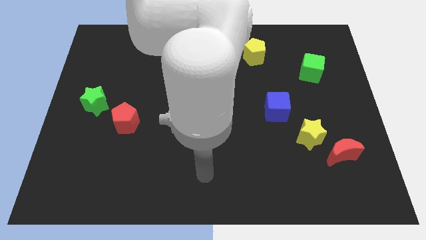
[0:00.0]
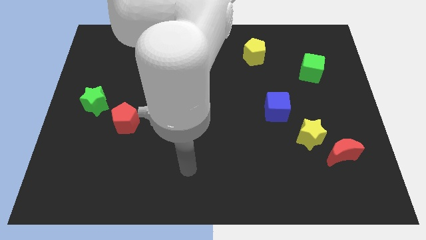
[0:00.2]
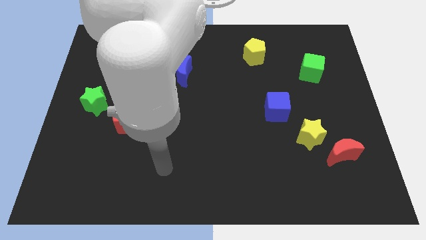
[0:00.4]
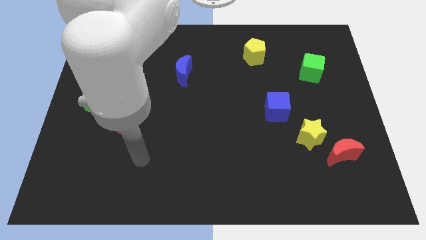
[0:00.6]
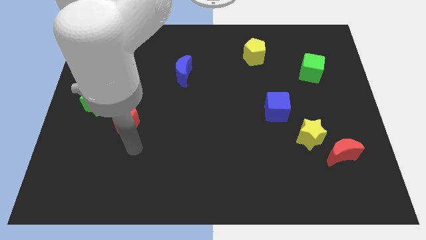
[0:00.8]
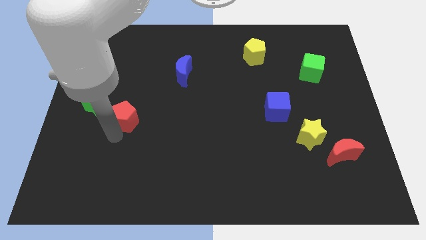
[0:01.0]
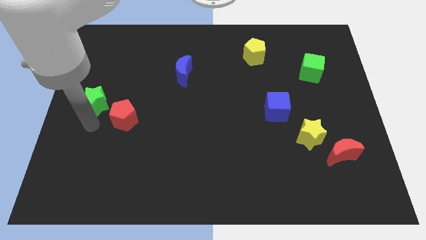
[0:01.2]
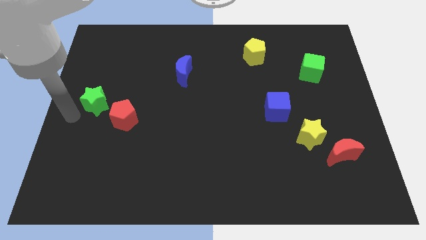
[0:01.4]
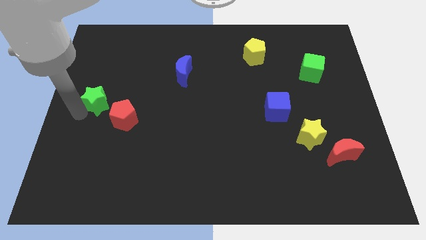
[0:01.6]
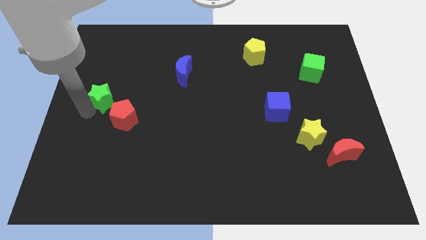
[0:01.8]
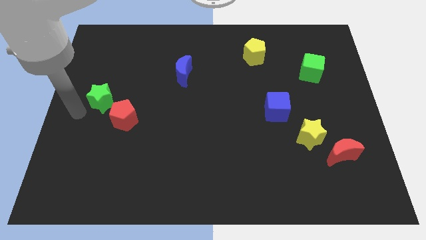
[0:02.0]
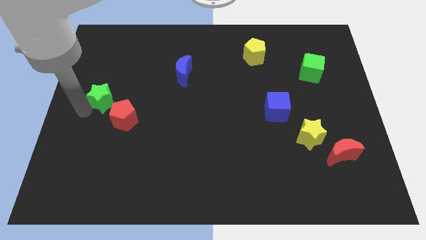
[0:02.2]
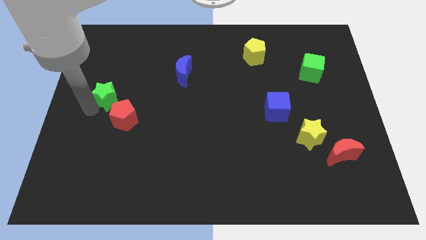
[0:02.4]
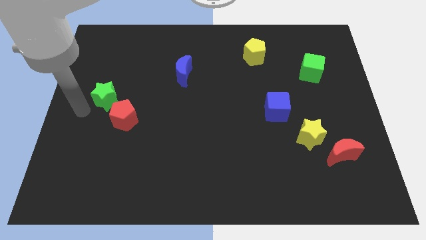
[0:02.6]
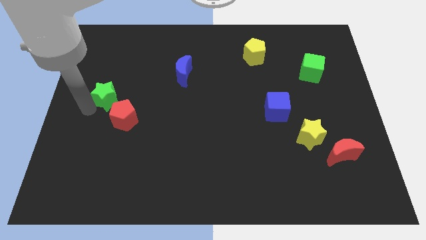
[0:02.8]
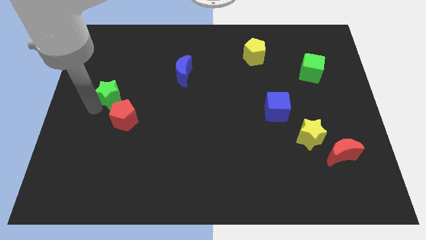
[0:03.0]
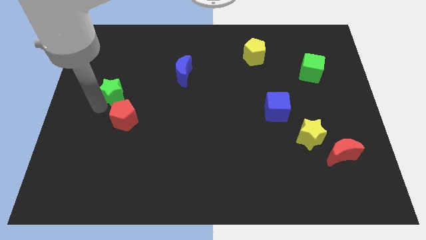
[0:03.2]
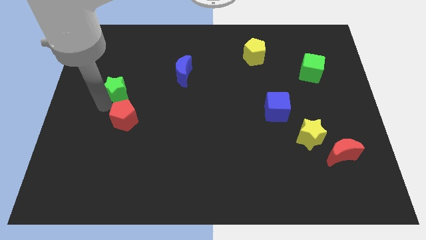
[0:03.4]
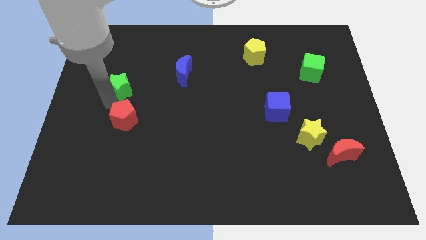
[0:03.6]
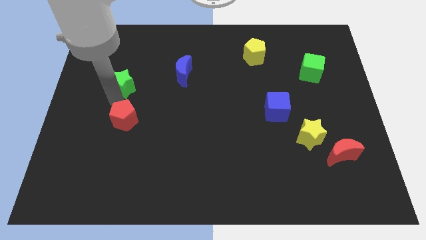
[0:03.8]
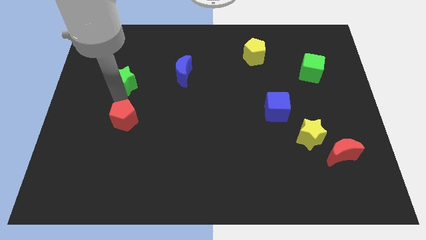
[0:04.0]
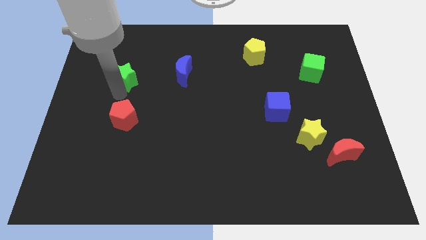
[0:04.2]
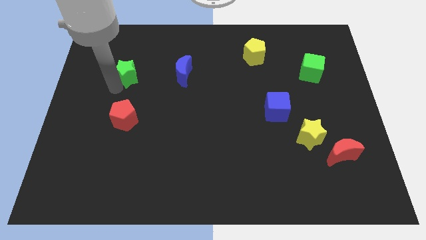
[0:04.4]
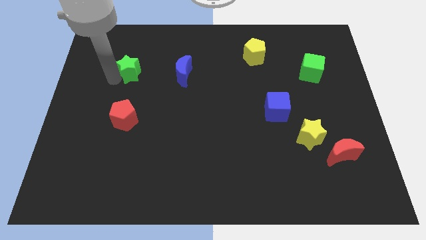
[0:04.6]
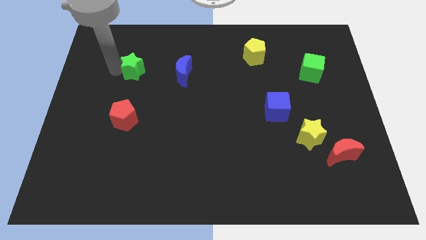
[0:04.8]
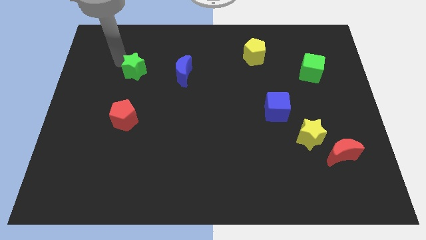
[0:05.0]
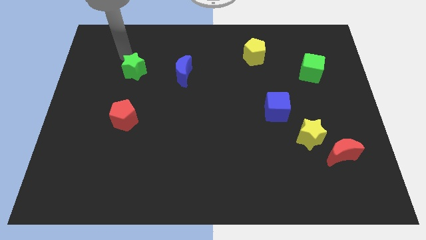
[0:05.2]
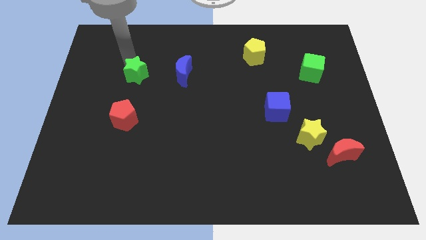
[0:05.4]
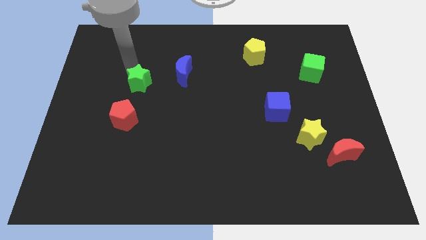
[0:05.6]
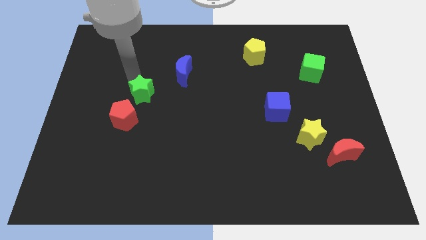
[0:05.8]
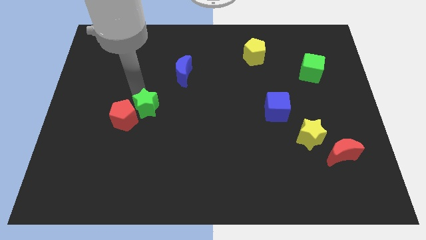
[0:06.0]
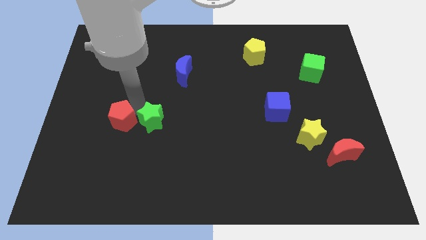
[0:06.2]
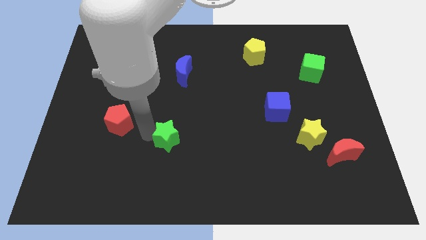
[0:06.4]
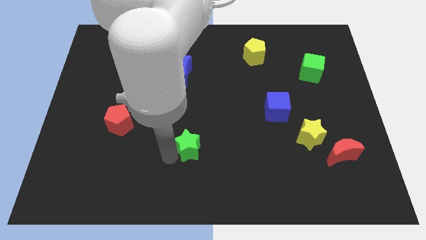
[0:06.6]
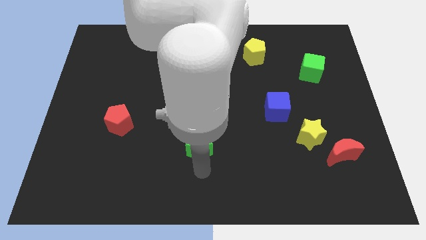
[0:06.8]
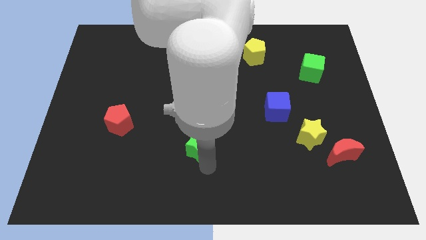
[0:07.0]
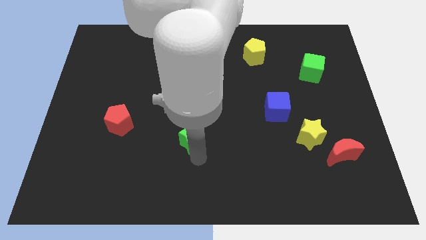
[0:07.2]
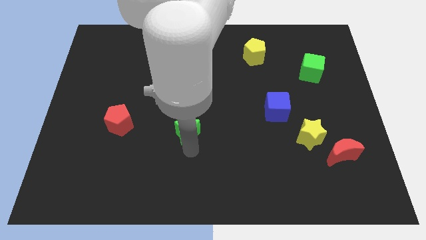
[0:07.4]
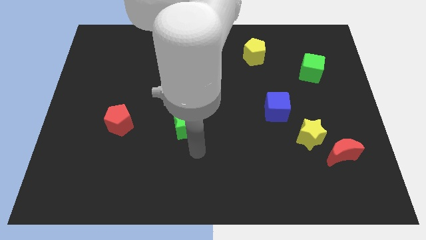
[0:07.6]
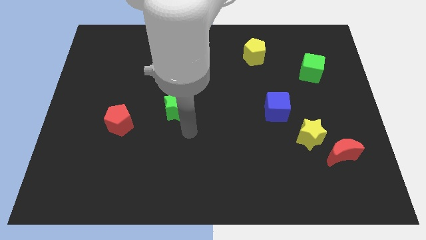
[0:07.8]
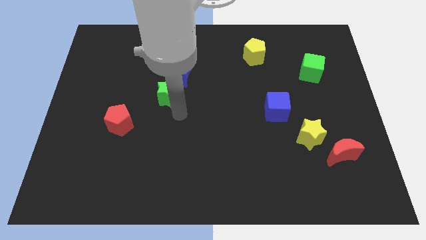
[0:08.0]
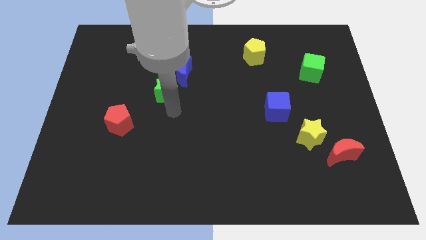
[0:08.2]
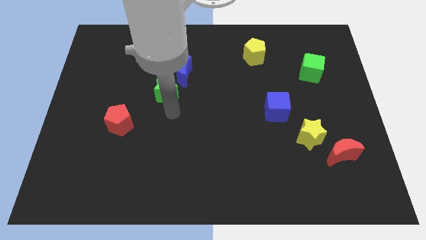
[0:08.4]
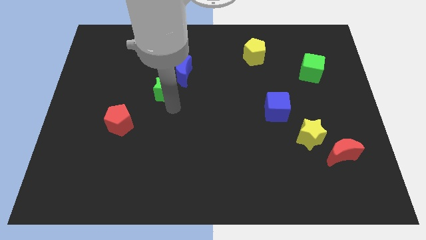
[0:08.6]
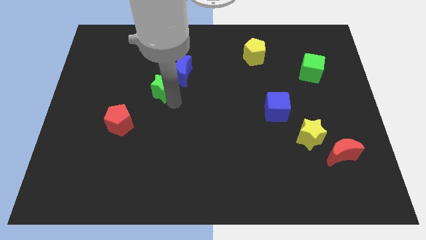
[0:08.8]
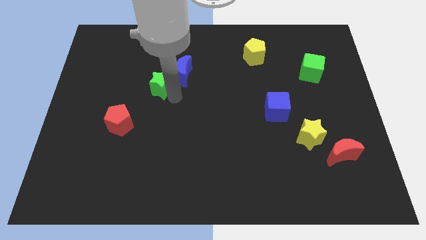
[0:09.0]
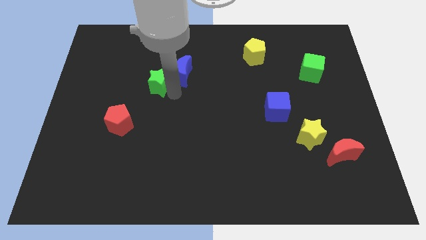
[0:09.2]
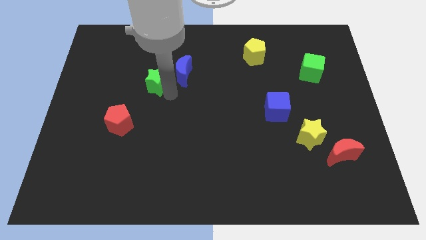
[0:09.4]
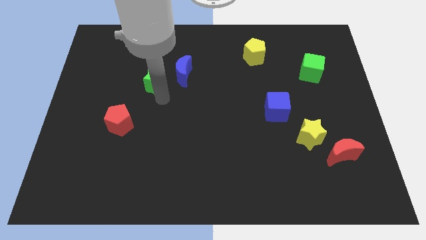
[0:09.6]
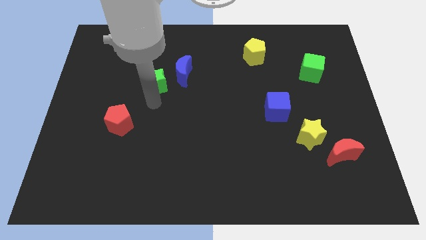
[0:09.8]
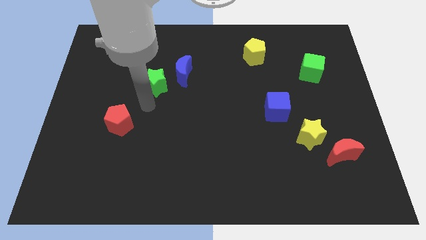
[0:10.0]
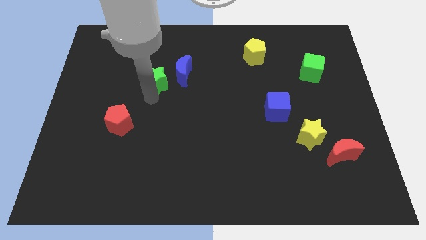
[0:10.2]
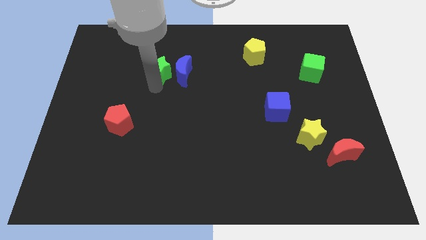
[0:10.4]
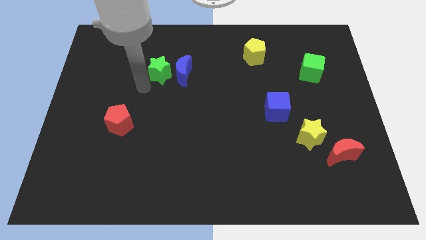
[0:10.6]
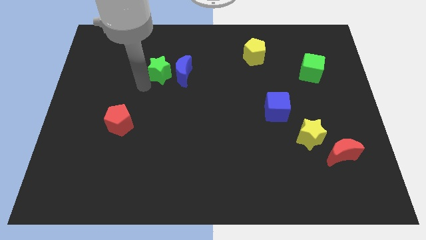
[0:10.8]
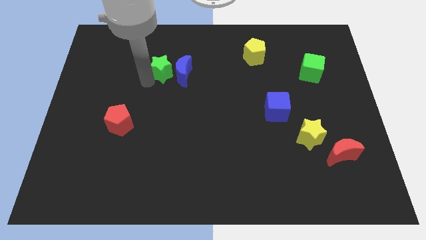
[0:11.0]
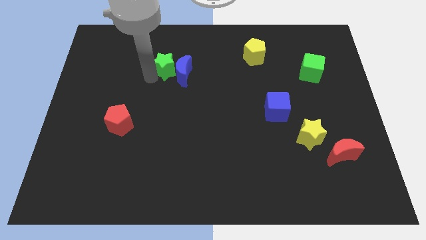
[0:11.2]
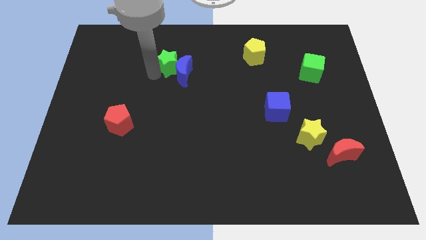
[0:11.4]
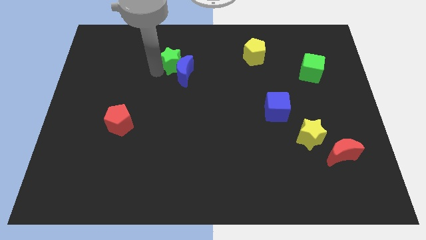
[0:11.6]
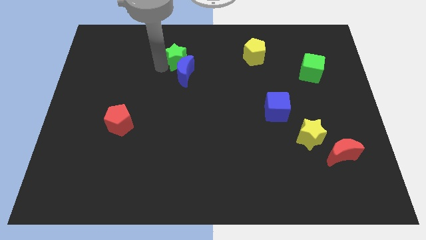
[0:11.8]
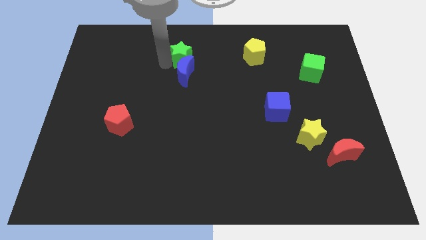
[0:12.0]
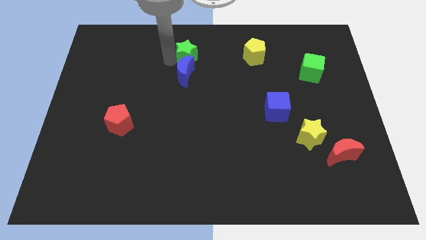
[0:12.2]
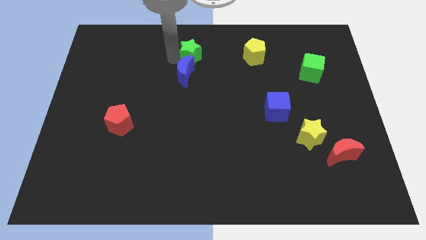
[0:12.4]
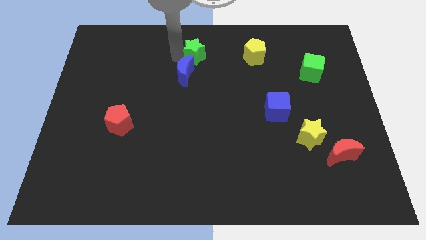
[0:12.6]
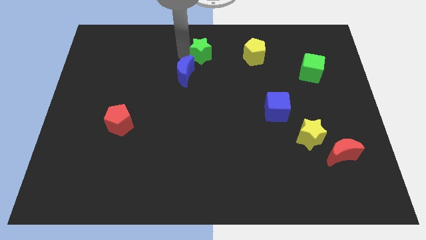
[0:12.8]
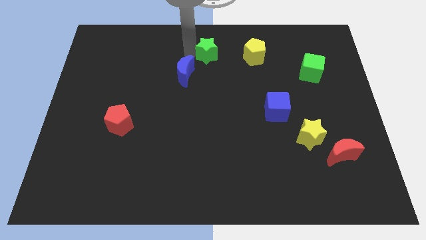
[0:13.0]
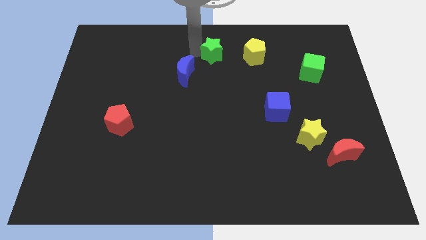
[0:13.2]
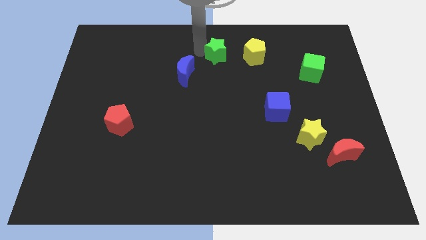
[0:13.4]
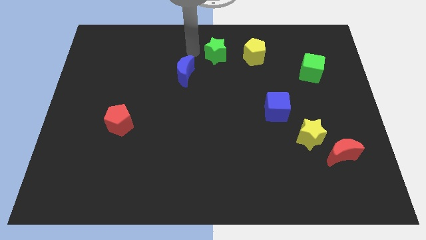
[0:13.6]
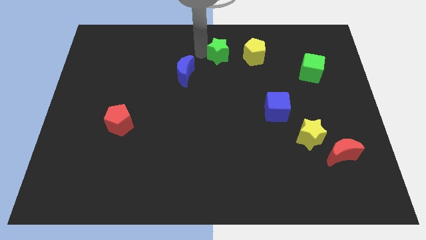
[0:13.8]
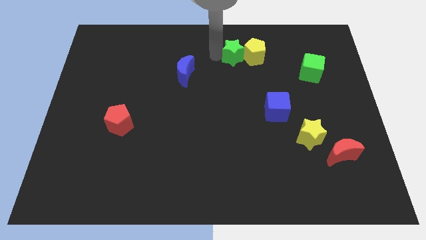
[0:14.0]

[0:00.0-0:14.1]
slide the green star to the yellow pentagon
